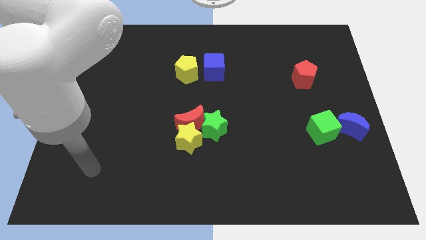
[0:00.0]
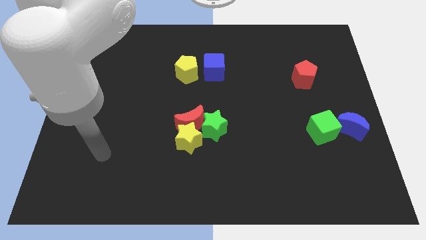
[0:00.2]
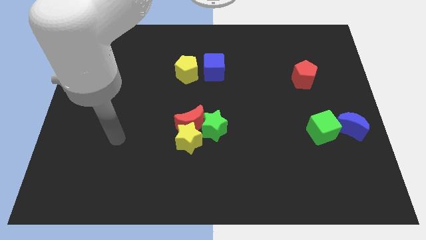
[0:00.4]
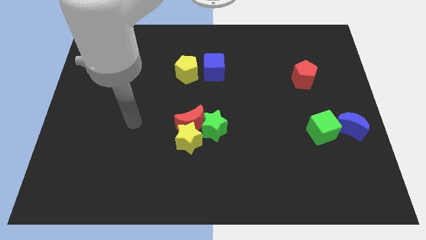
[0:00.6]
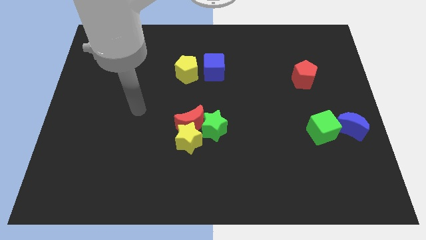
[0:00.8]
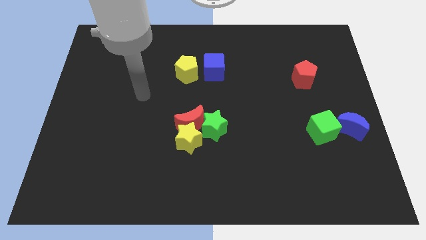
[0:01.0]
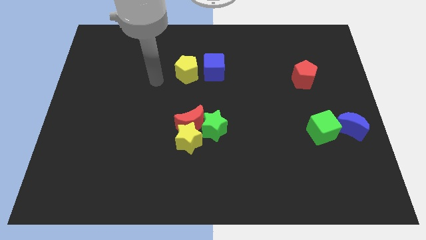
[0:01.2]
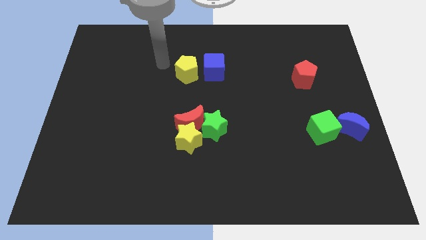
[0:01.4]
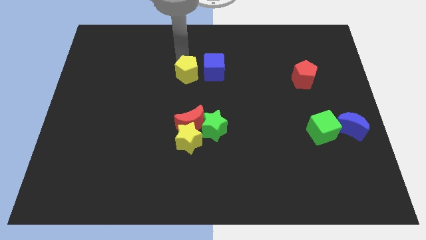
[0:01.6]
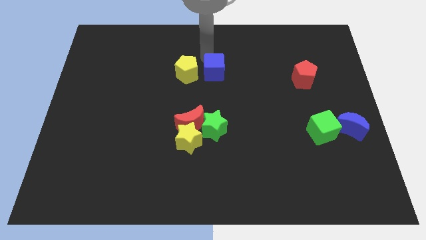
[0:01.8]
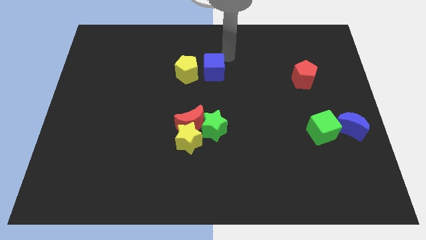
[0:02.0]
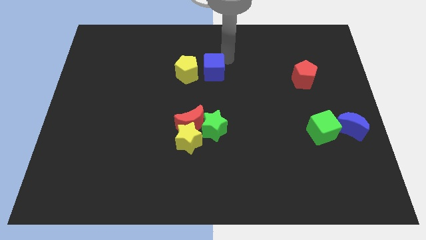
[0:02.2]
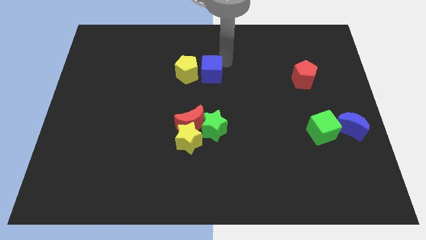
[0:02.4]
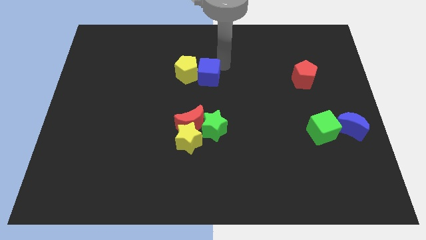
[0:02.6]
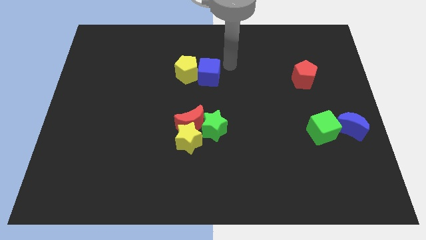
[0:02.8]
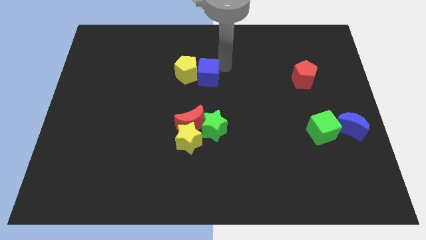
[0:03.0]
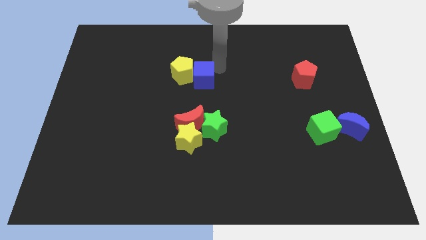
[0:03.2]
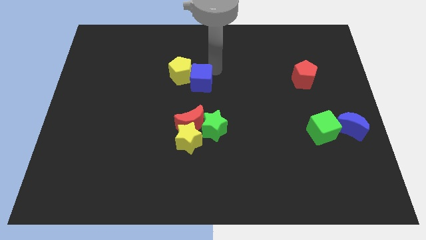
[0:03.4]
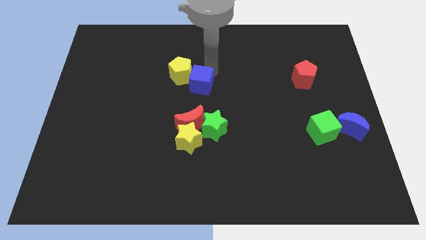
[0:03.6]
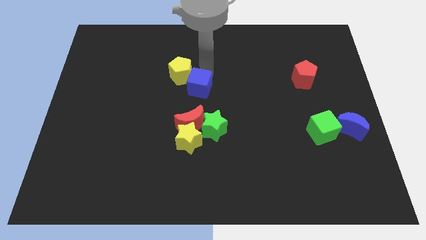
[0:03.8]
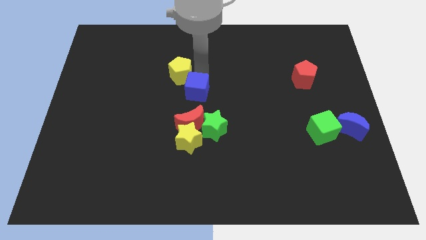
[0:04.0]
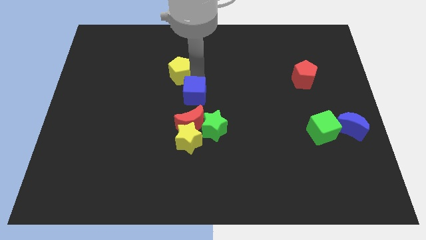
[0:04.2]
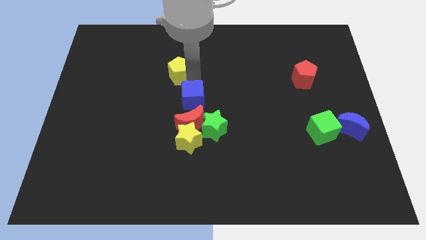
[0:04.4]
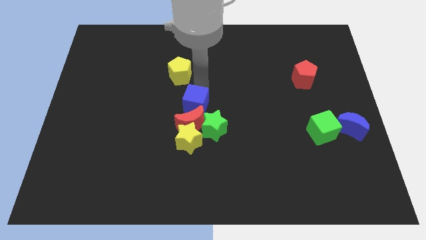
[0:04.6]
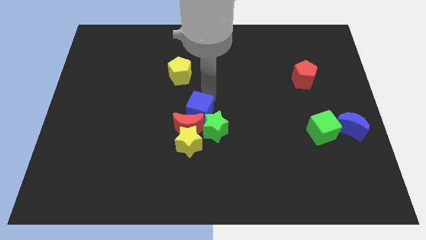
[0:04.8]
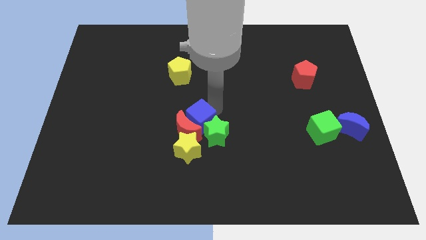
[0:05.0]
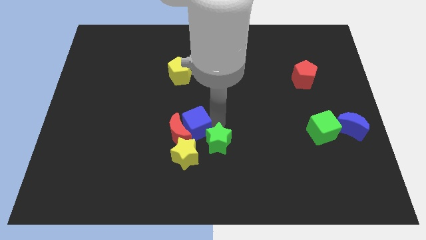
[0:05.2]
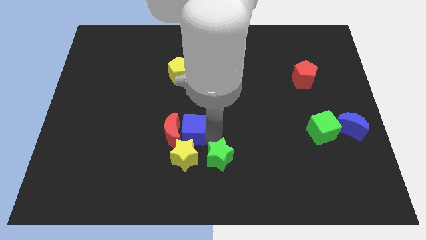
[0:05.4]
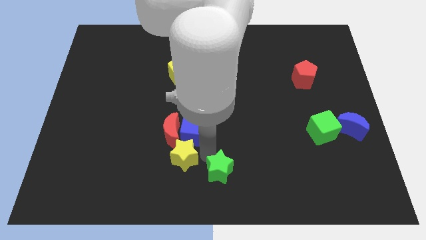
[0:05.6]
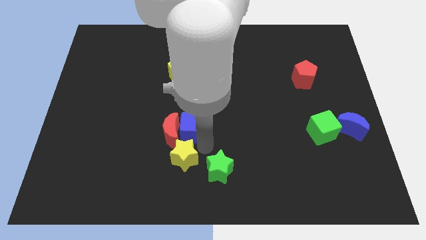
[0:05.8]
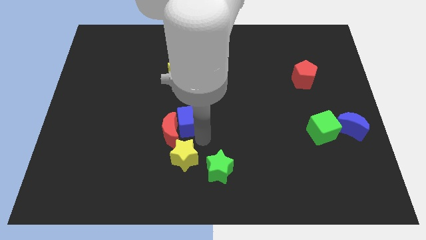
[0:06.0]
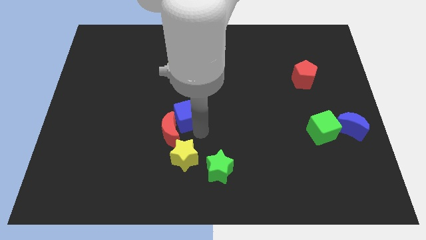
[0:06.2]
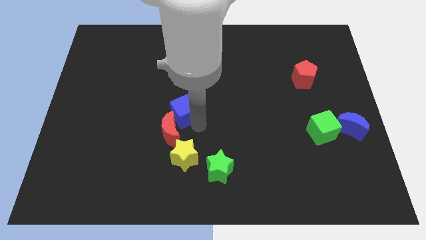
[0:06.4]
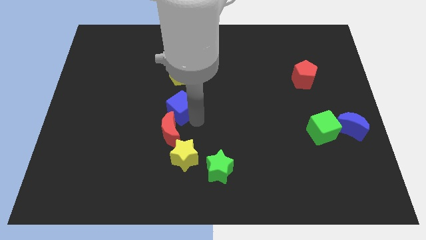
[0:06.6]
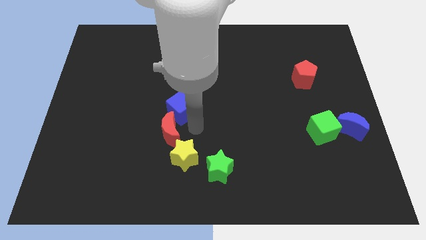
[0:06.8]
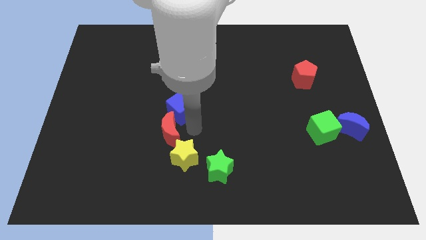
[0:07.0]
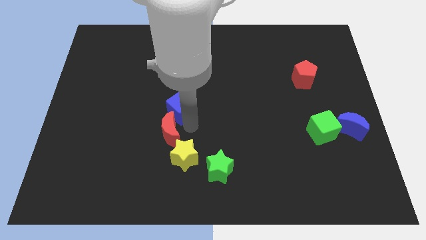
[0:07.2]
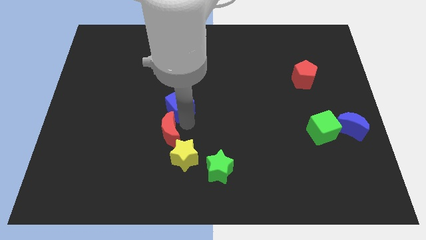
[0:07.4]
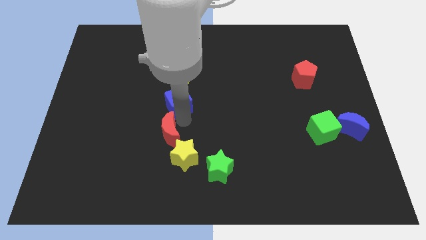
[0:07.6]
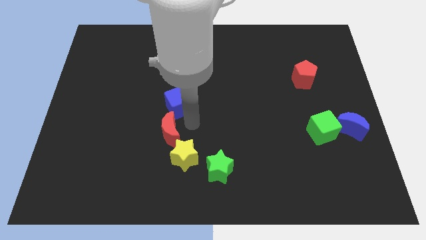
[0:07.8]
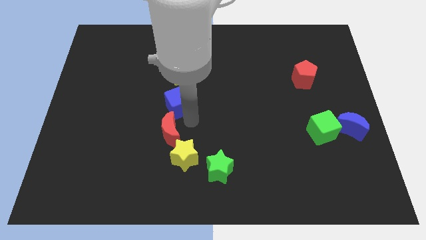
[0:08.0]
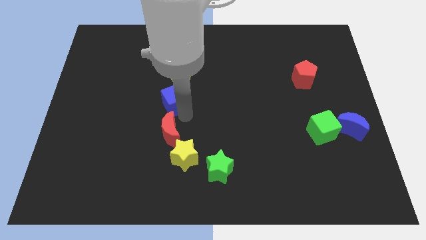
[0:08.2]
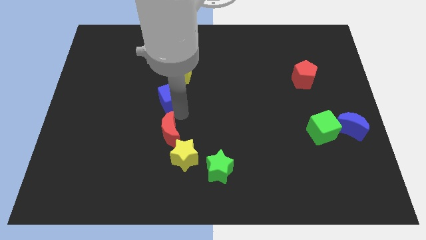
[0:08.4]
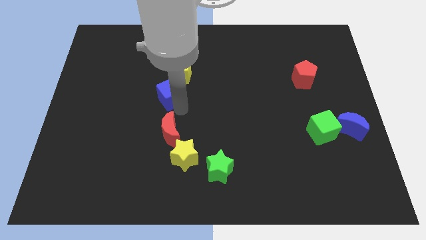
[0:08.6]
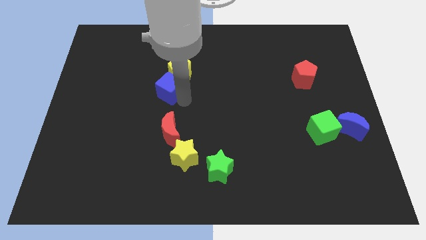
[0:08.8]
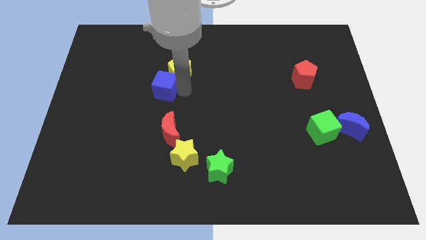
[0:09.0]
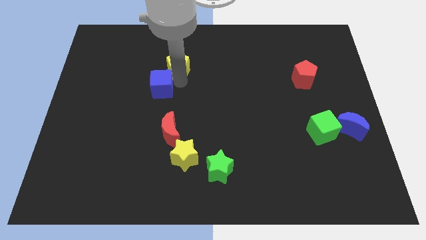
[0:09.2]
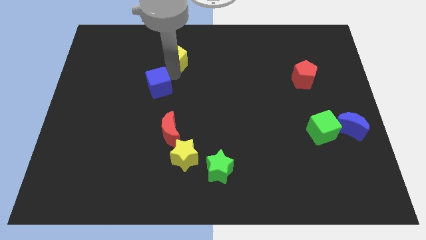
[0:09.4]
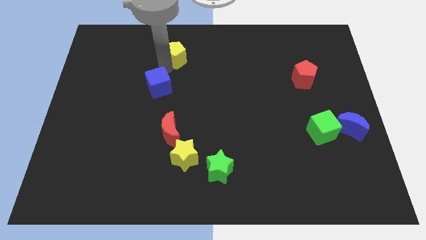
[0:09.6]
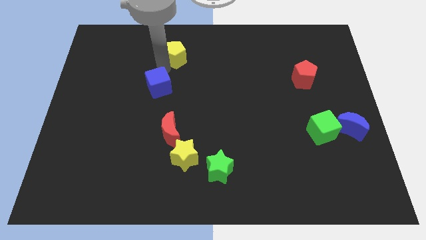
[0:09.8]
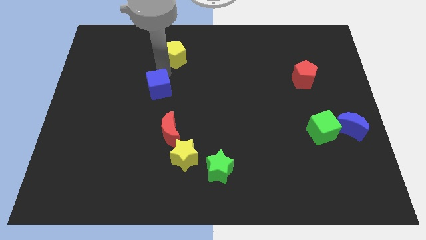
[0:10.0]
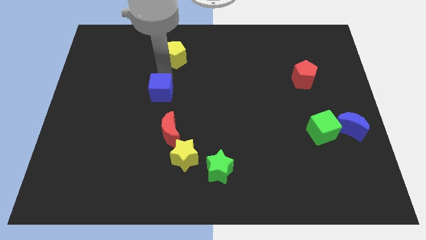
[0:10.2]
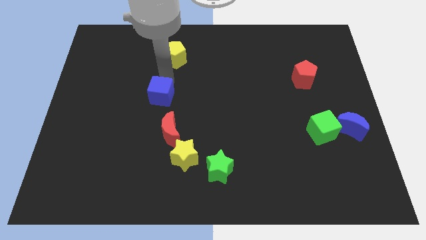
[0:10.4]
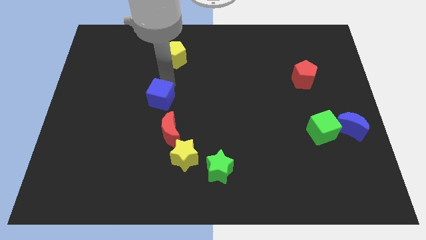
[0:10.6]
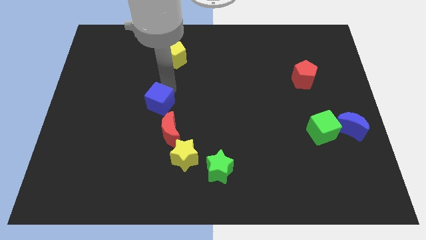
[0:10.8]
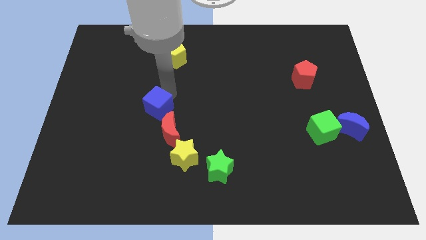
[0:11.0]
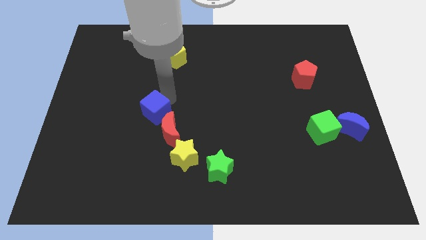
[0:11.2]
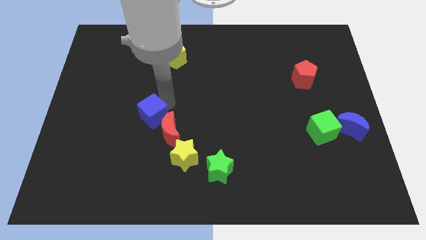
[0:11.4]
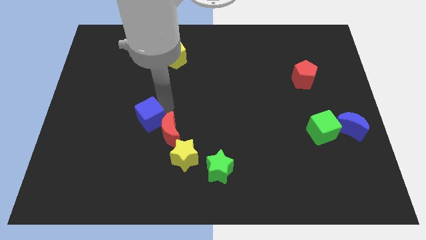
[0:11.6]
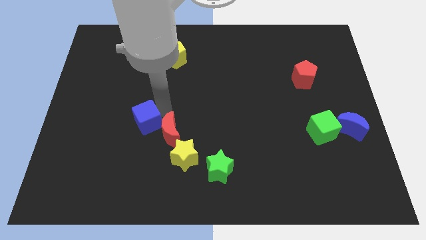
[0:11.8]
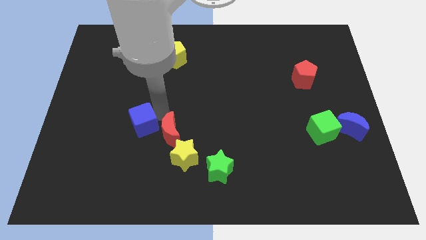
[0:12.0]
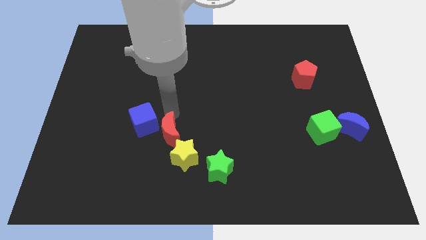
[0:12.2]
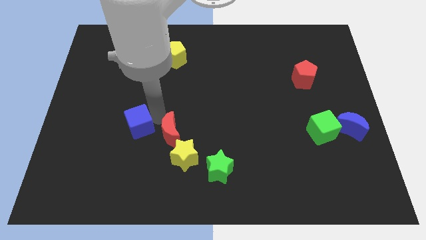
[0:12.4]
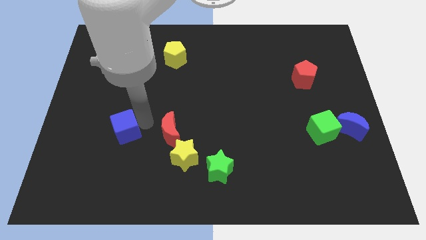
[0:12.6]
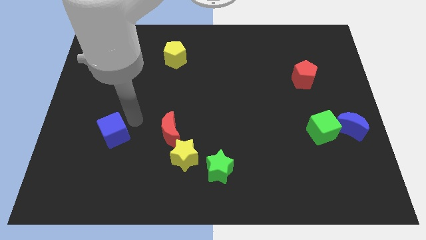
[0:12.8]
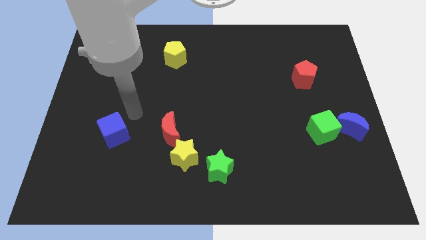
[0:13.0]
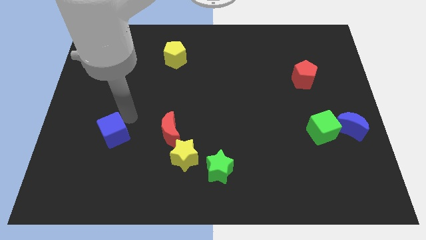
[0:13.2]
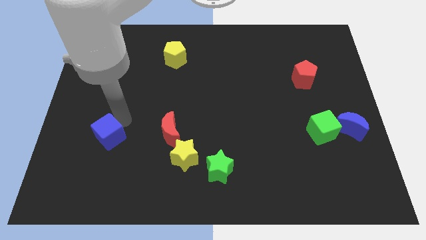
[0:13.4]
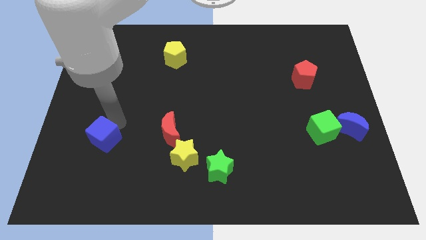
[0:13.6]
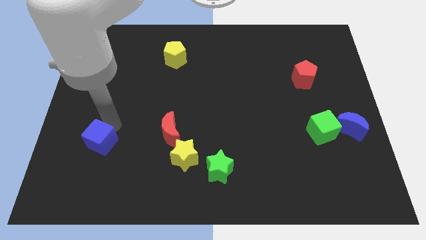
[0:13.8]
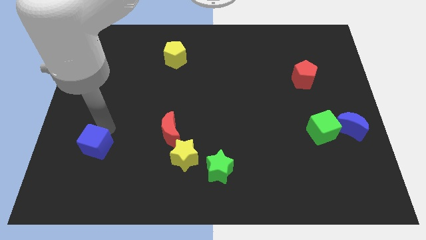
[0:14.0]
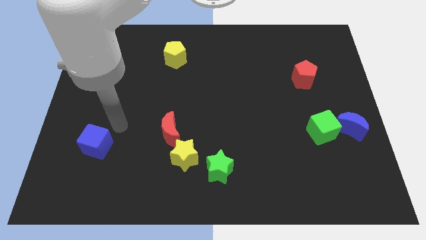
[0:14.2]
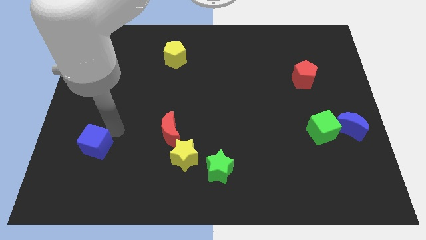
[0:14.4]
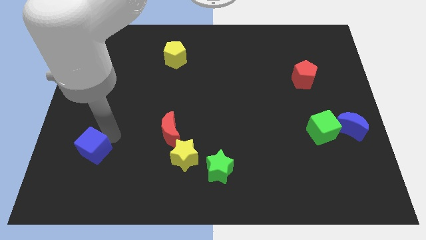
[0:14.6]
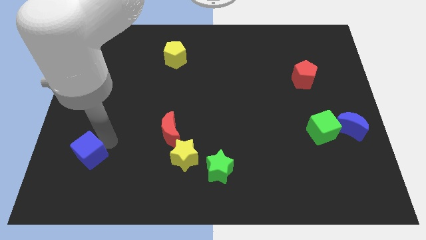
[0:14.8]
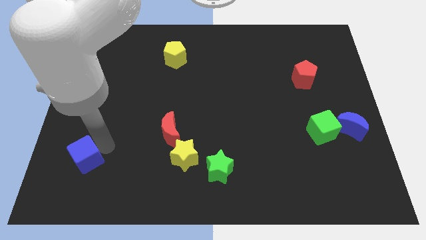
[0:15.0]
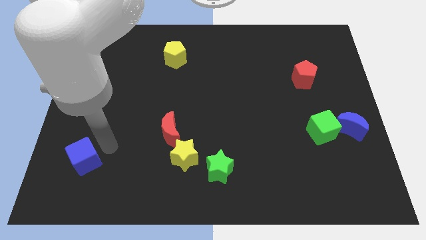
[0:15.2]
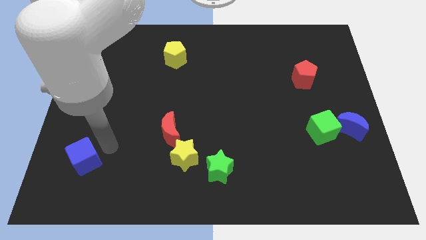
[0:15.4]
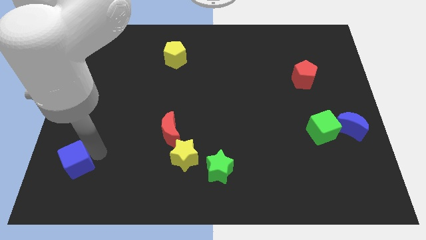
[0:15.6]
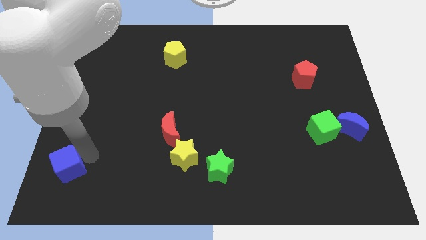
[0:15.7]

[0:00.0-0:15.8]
push the blue cube to the lower left corner
